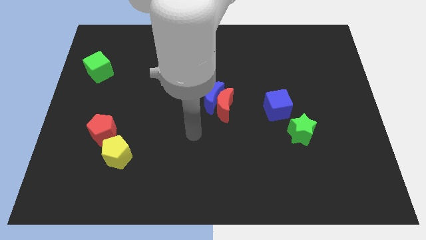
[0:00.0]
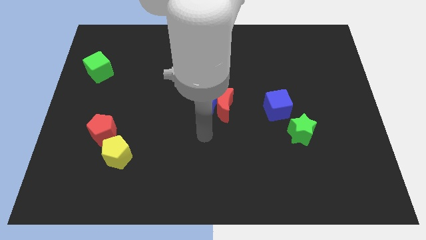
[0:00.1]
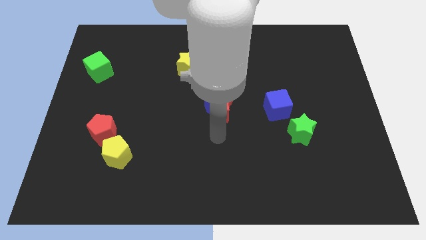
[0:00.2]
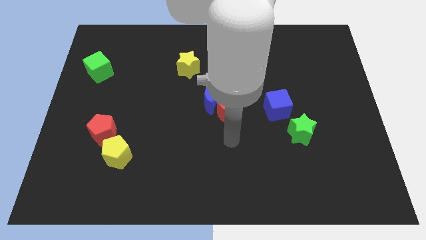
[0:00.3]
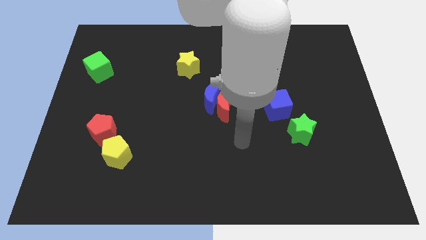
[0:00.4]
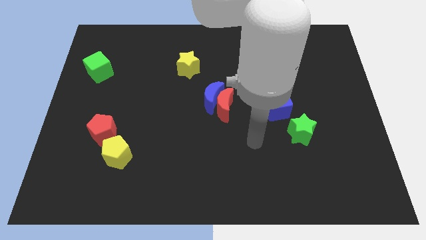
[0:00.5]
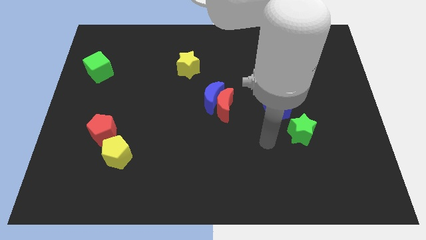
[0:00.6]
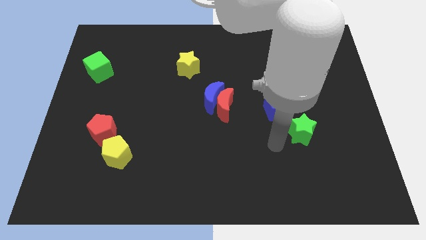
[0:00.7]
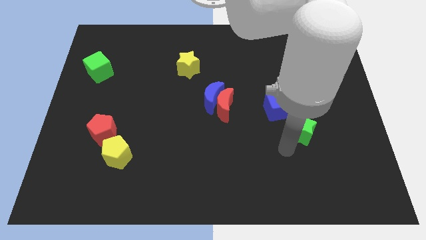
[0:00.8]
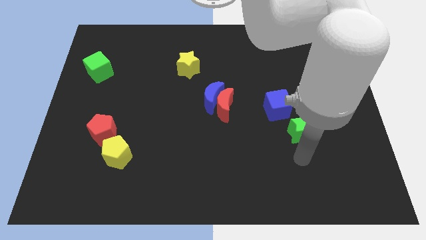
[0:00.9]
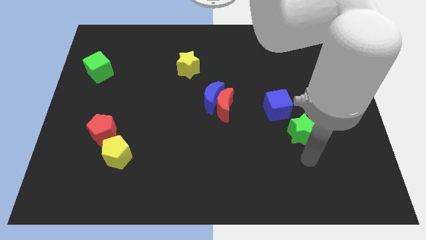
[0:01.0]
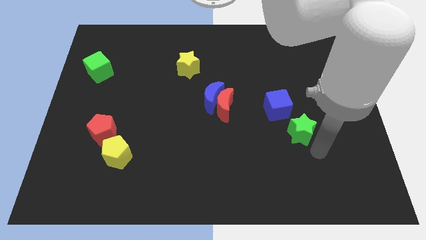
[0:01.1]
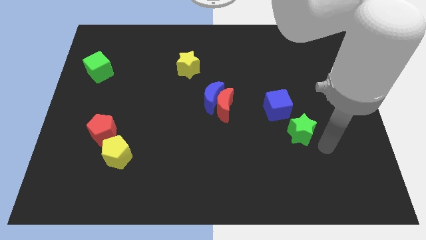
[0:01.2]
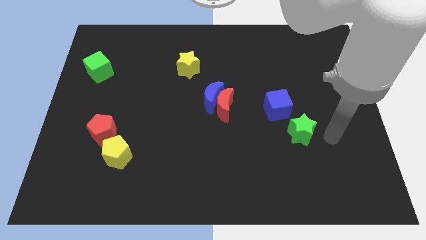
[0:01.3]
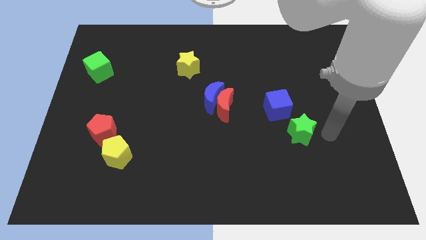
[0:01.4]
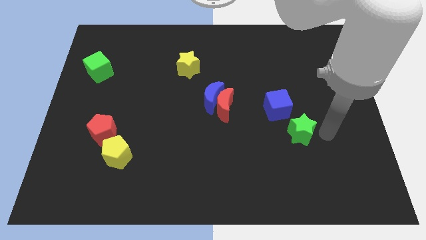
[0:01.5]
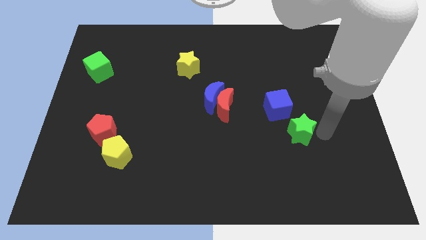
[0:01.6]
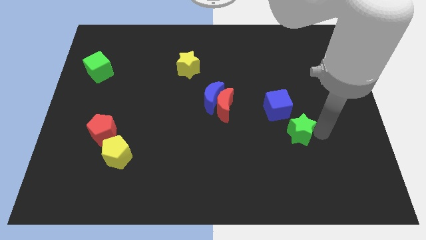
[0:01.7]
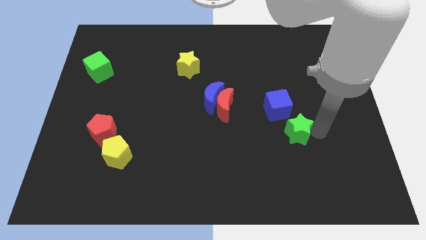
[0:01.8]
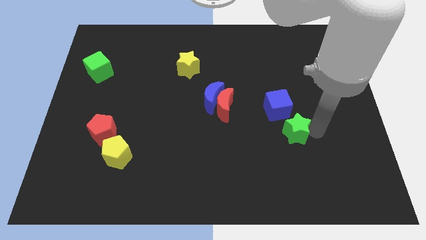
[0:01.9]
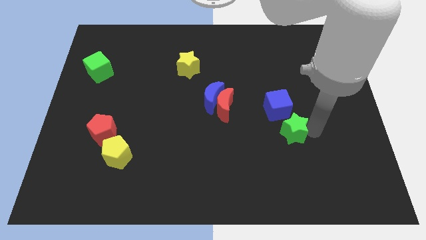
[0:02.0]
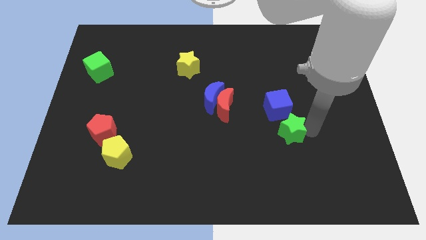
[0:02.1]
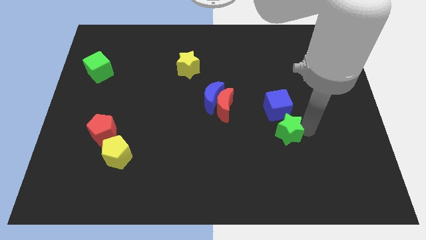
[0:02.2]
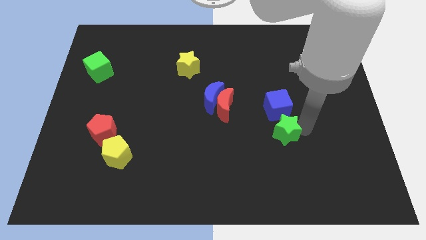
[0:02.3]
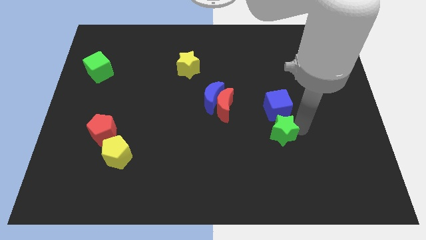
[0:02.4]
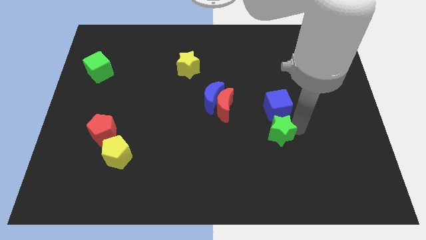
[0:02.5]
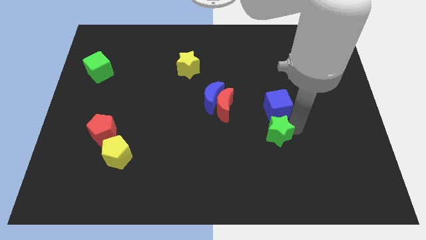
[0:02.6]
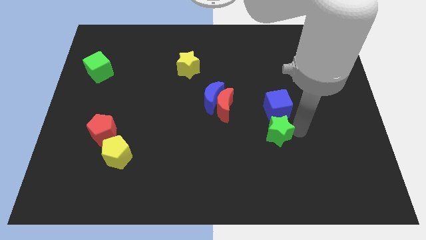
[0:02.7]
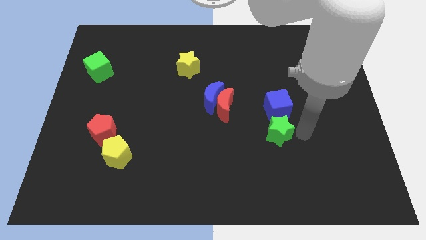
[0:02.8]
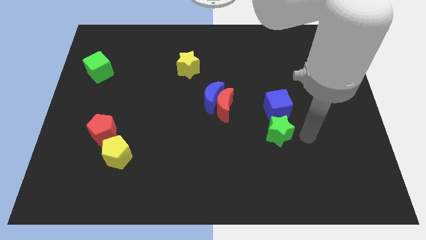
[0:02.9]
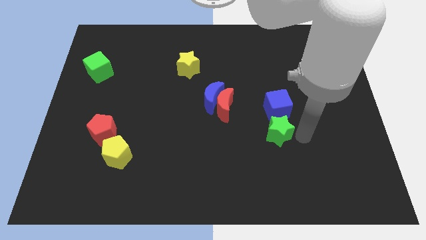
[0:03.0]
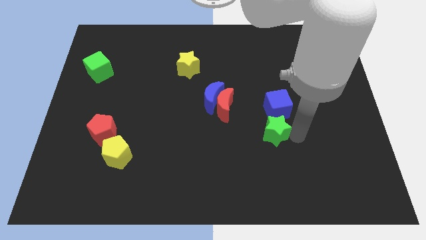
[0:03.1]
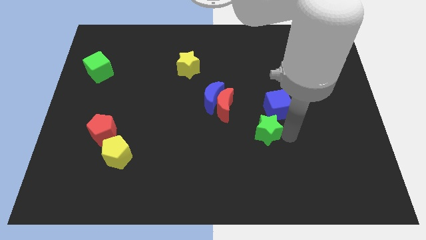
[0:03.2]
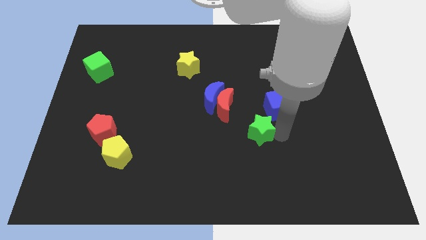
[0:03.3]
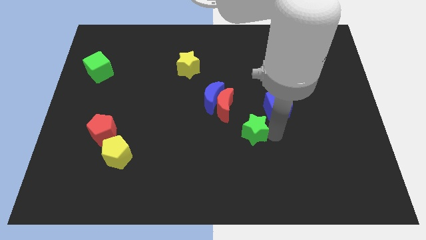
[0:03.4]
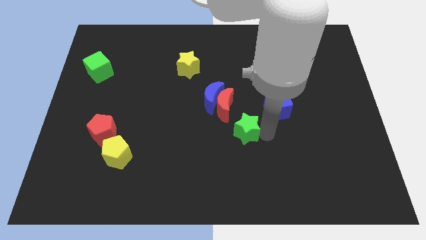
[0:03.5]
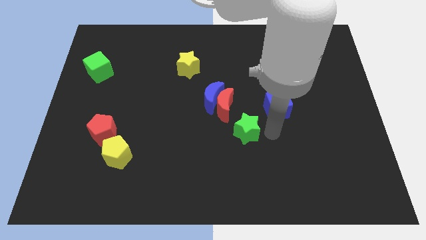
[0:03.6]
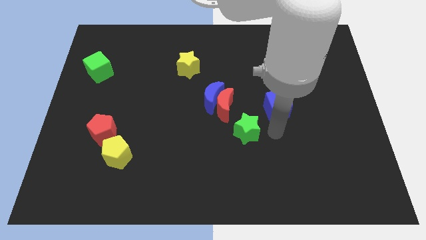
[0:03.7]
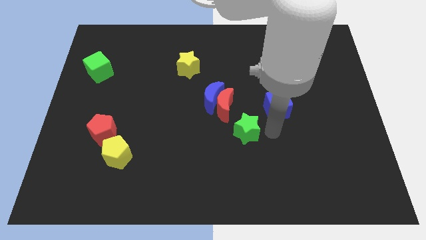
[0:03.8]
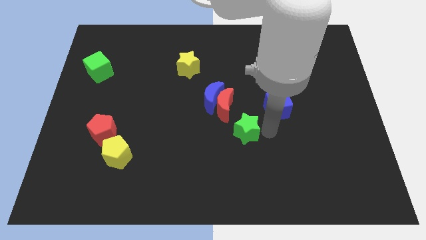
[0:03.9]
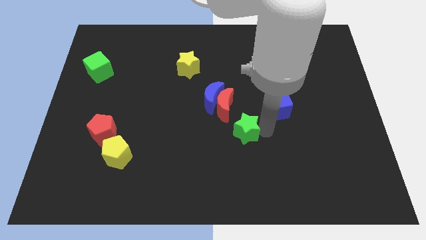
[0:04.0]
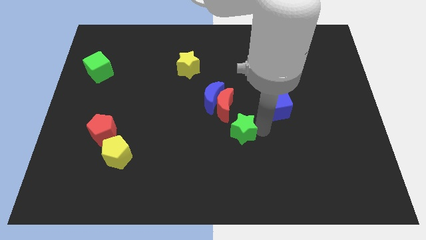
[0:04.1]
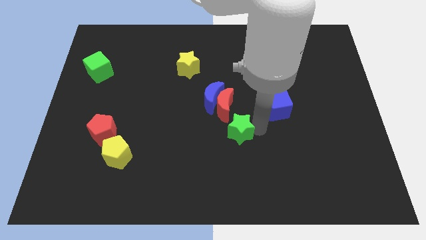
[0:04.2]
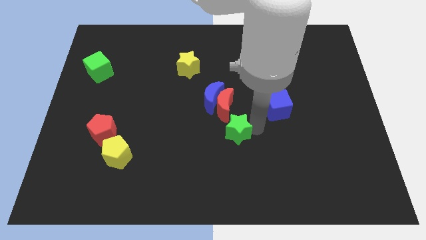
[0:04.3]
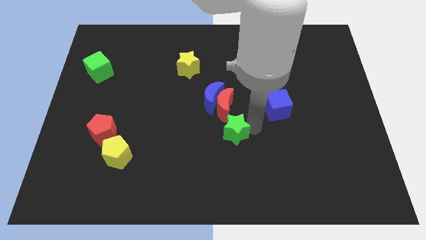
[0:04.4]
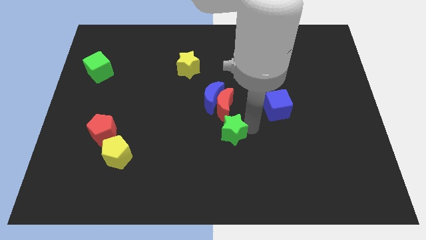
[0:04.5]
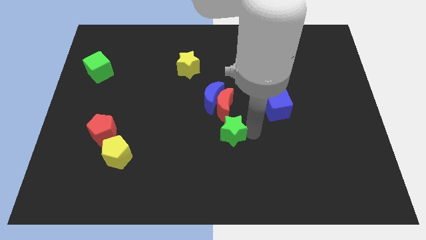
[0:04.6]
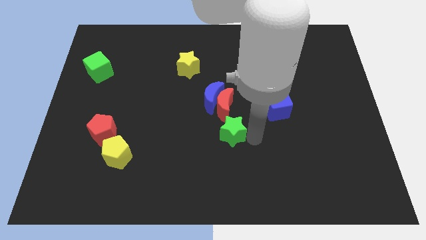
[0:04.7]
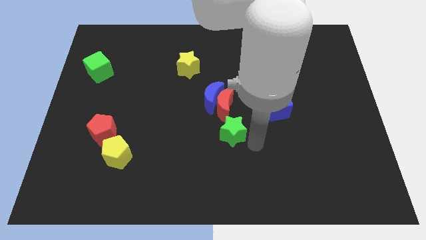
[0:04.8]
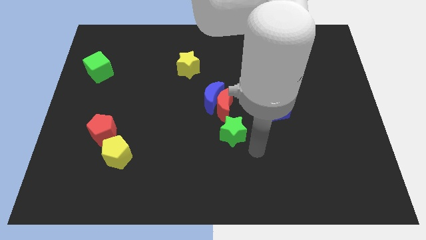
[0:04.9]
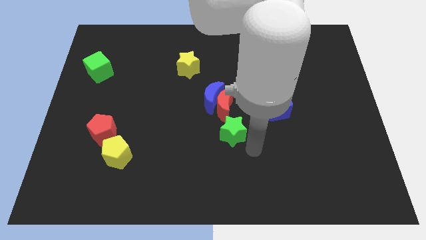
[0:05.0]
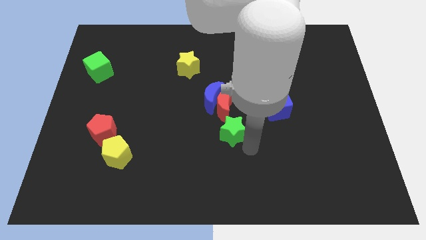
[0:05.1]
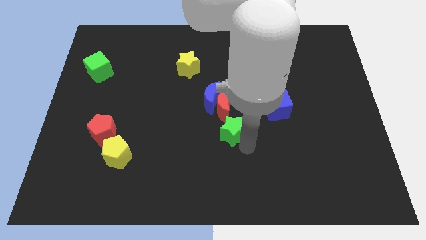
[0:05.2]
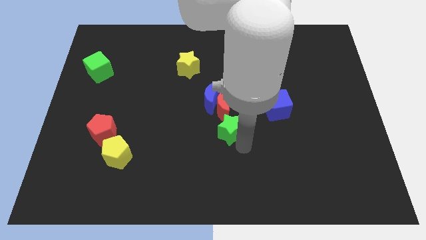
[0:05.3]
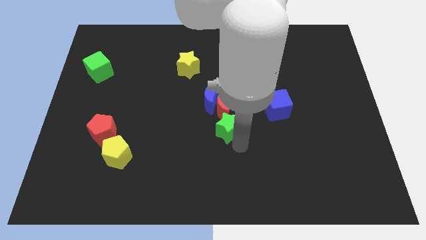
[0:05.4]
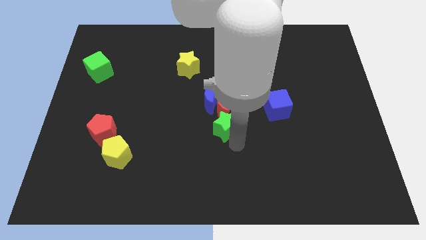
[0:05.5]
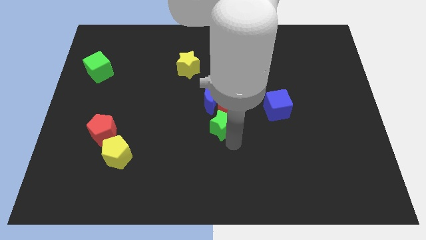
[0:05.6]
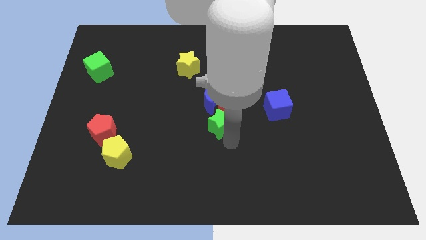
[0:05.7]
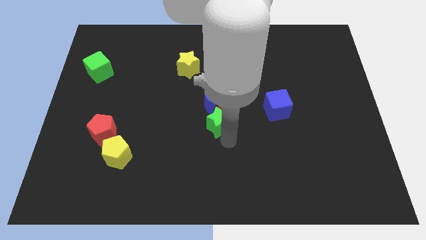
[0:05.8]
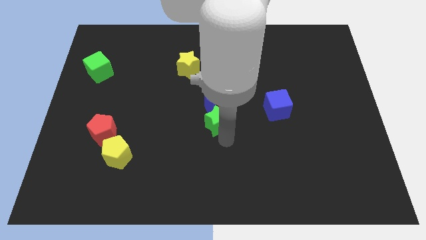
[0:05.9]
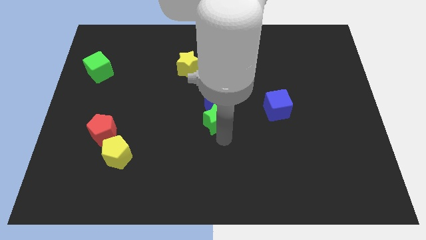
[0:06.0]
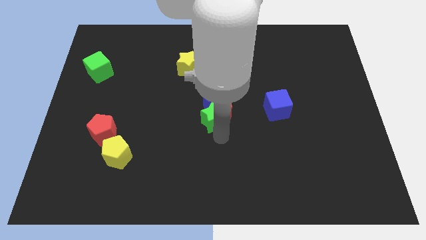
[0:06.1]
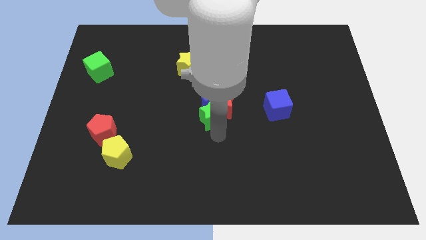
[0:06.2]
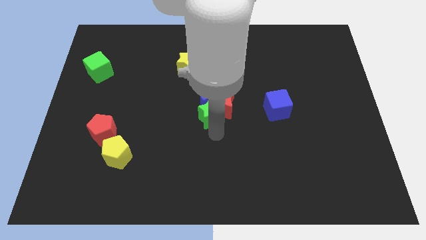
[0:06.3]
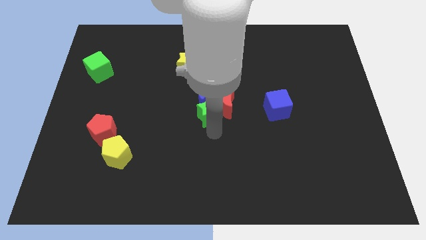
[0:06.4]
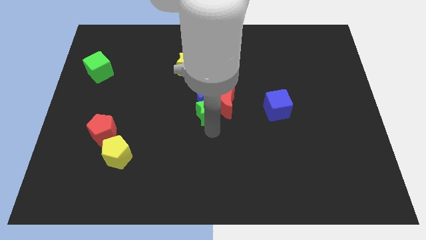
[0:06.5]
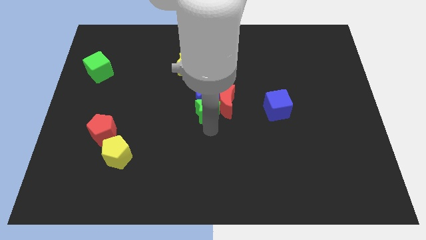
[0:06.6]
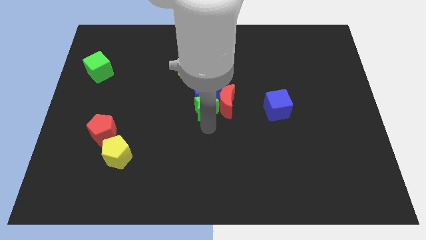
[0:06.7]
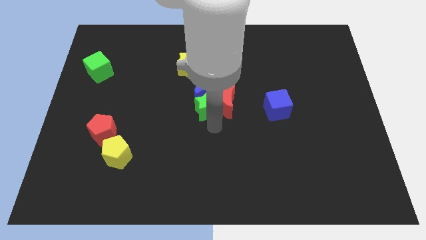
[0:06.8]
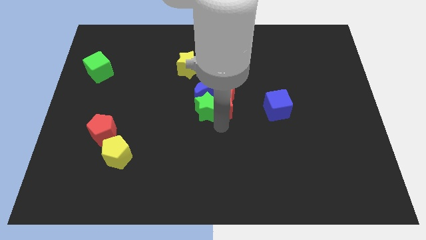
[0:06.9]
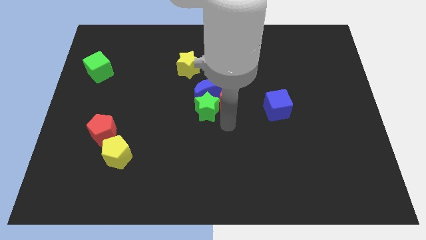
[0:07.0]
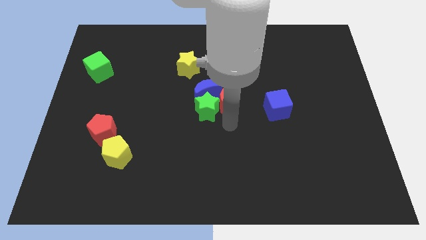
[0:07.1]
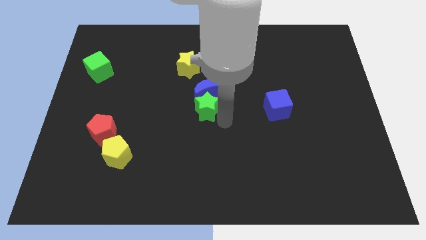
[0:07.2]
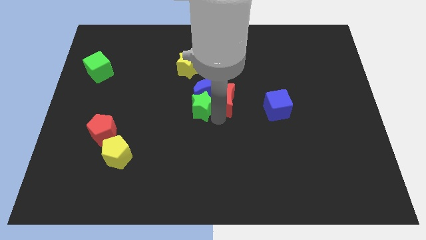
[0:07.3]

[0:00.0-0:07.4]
push the green star to the bottom of the yellow star
